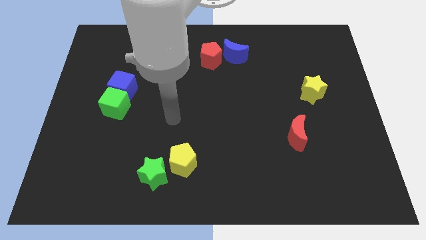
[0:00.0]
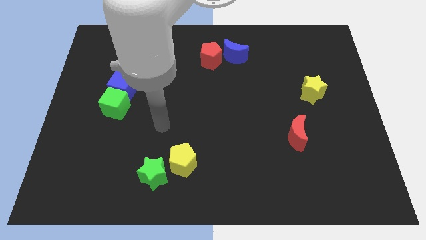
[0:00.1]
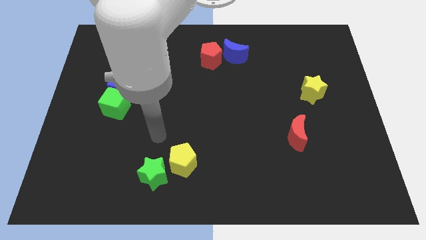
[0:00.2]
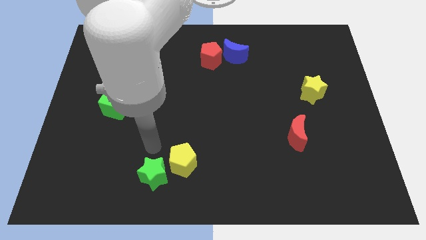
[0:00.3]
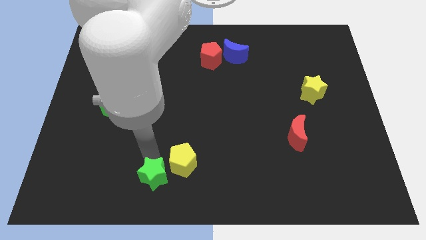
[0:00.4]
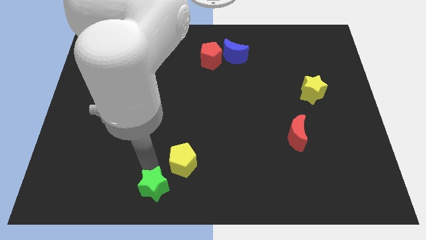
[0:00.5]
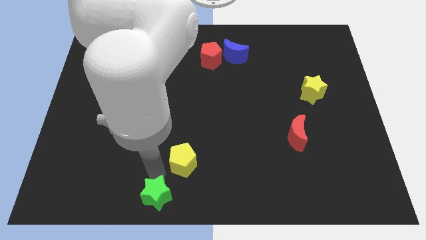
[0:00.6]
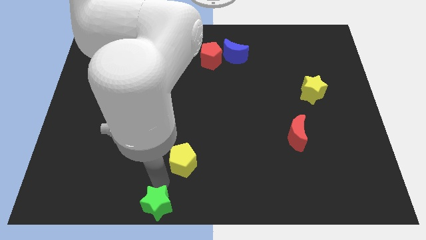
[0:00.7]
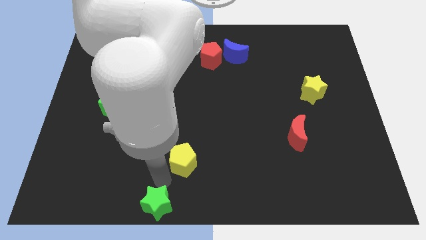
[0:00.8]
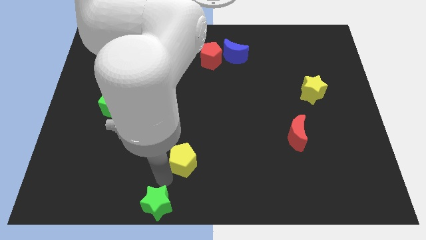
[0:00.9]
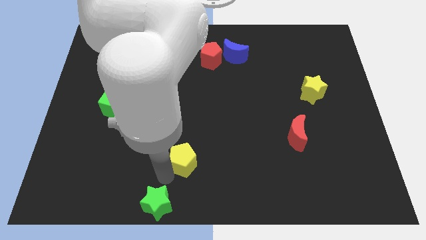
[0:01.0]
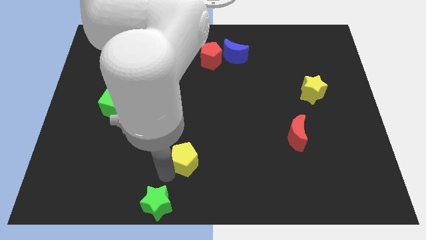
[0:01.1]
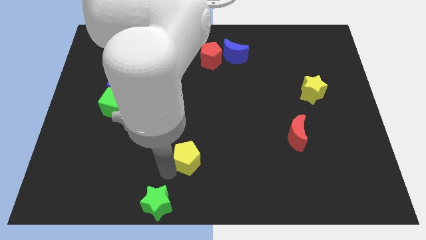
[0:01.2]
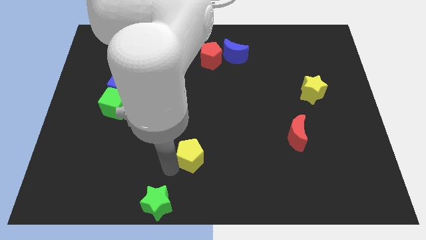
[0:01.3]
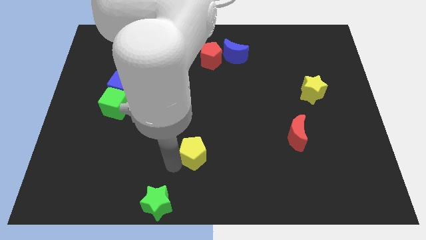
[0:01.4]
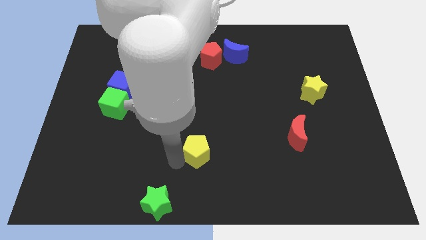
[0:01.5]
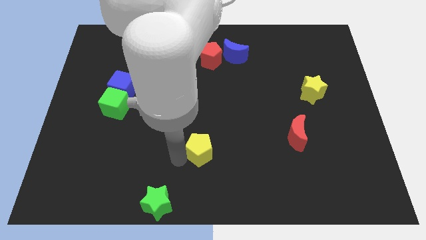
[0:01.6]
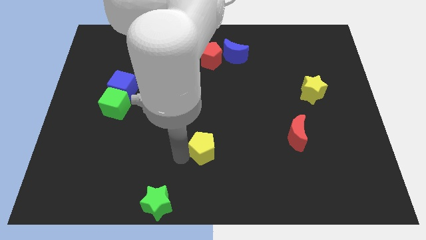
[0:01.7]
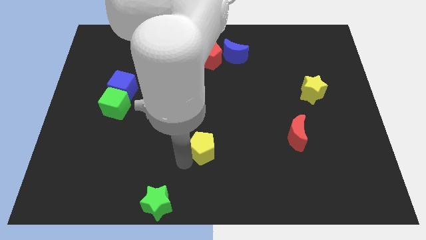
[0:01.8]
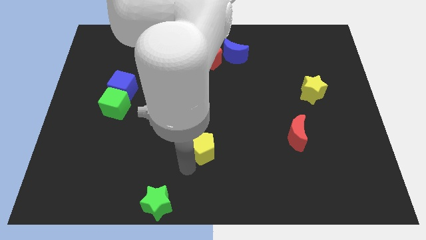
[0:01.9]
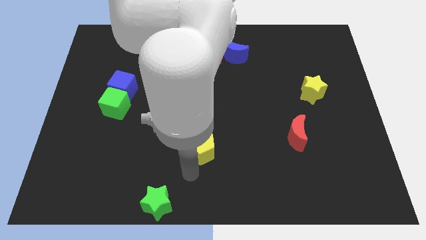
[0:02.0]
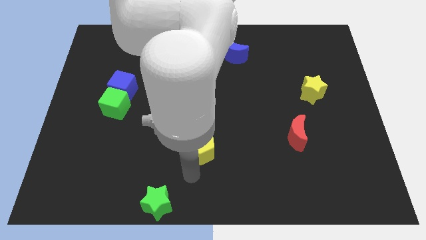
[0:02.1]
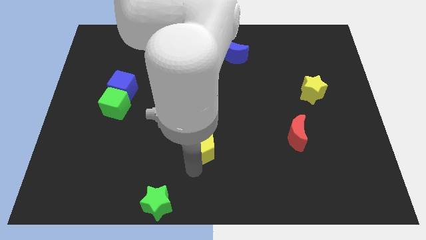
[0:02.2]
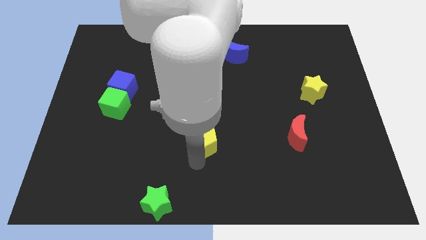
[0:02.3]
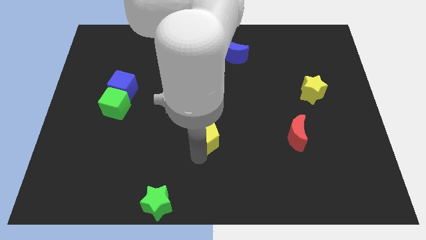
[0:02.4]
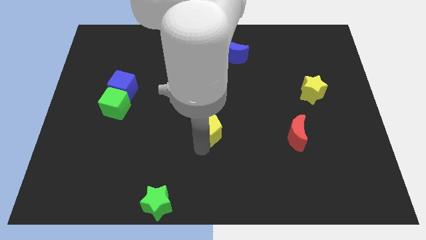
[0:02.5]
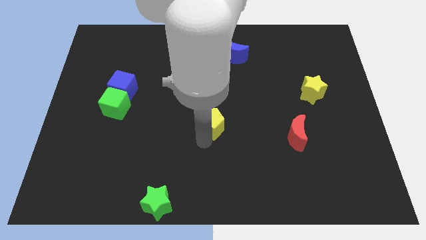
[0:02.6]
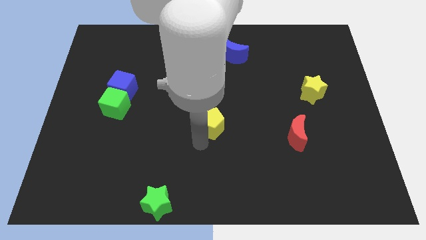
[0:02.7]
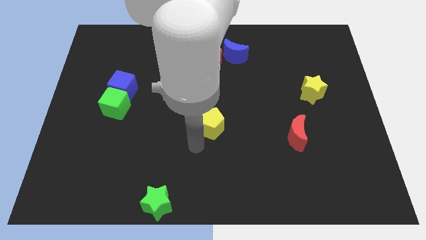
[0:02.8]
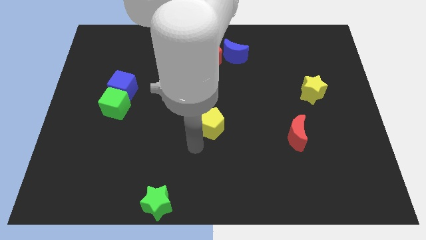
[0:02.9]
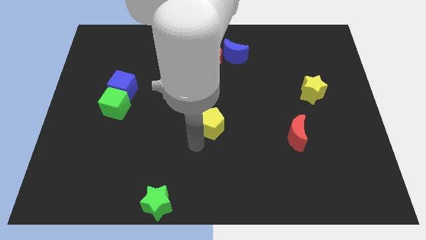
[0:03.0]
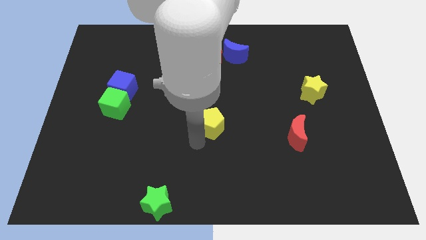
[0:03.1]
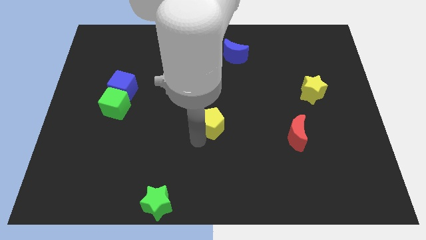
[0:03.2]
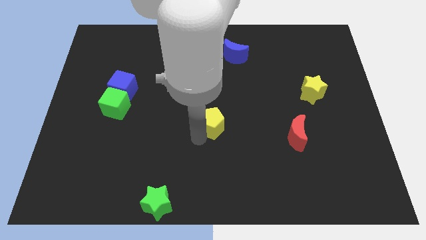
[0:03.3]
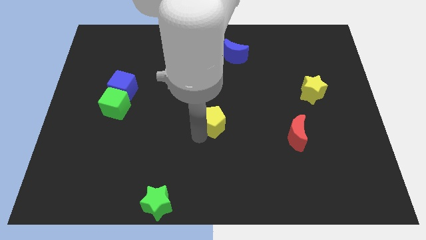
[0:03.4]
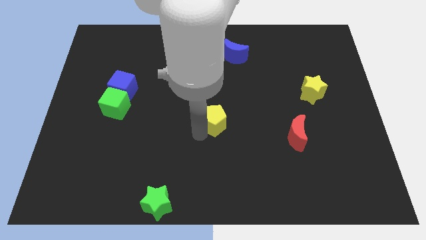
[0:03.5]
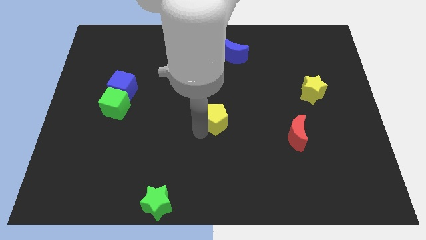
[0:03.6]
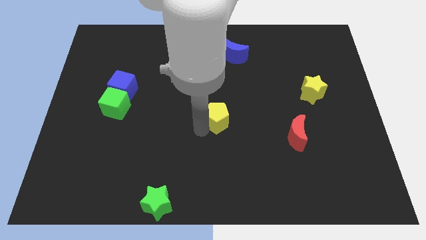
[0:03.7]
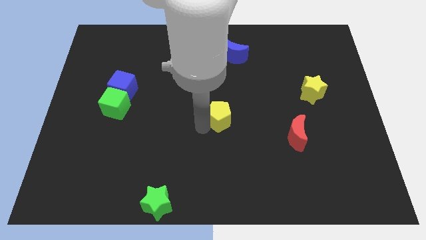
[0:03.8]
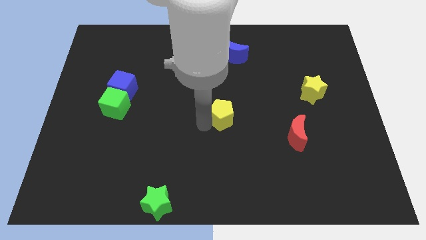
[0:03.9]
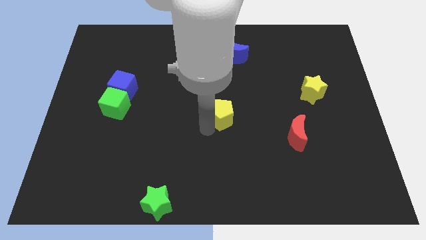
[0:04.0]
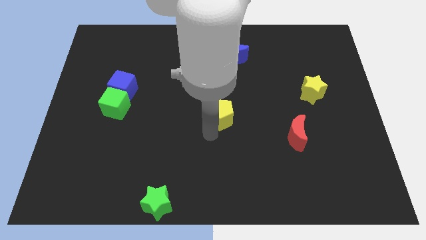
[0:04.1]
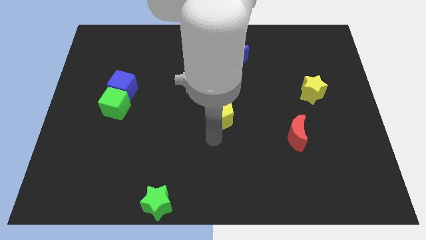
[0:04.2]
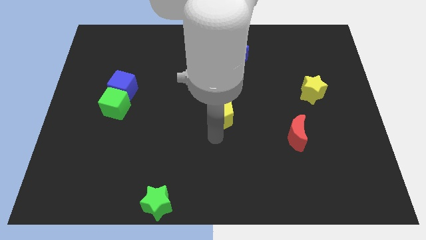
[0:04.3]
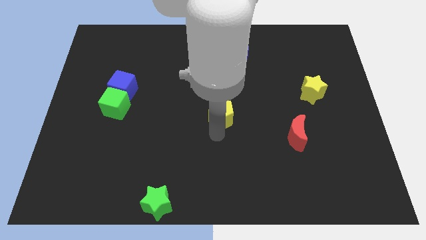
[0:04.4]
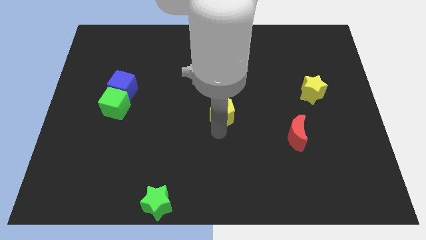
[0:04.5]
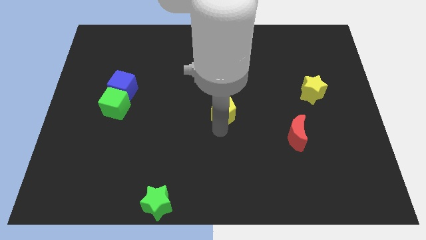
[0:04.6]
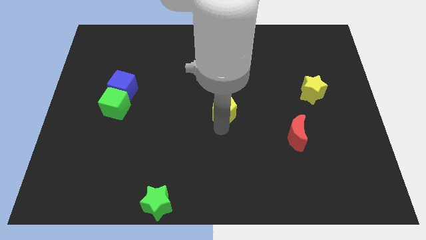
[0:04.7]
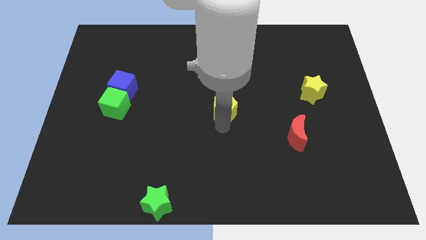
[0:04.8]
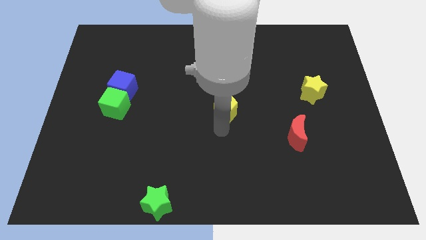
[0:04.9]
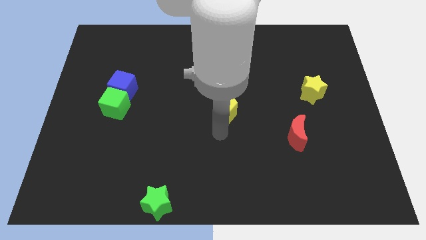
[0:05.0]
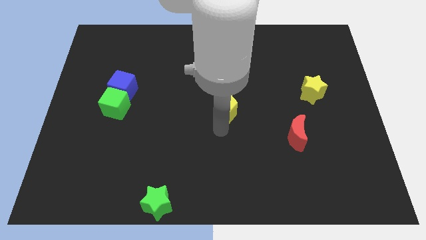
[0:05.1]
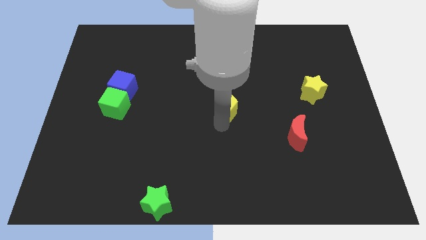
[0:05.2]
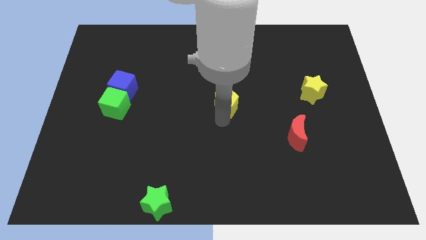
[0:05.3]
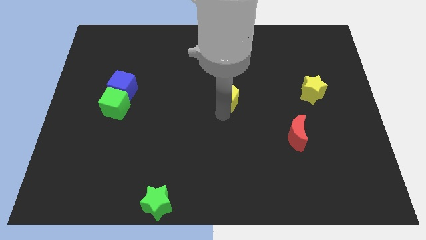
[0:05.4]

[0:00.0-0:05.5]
put the yellow pentagon below the blue moon

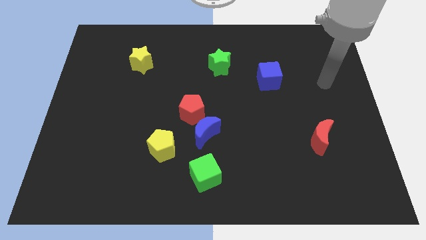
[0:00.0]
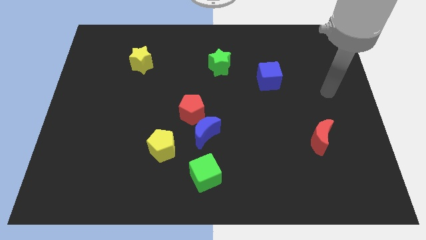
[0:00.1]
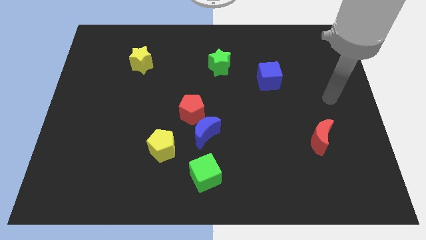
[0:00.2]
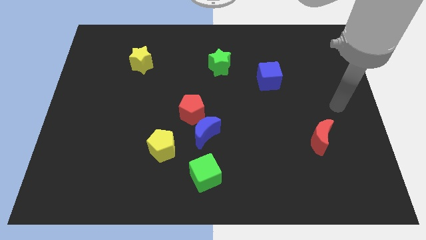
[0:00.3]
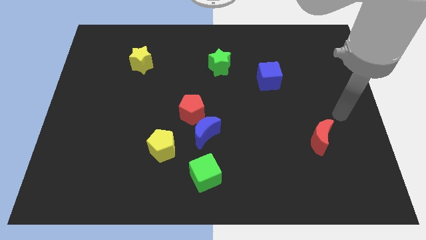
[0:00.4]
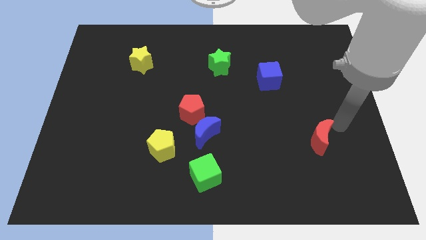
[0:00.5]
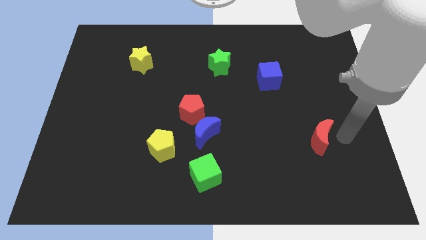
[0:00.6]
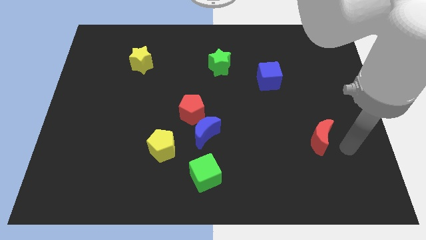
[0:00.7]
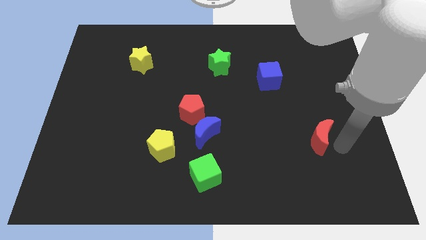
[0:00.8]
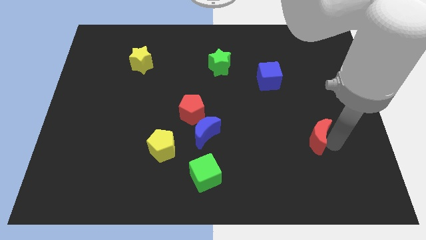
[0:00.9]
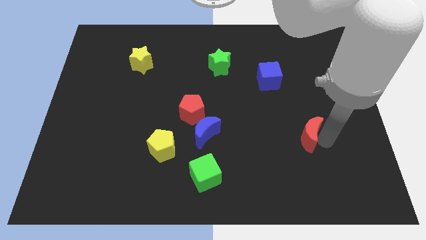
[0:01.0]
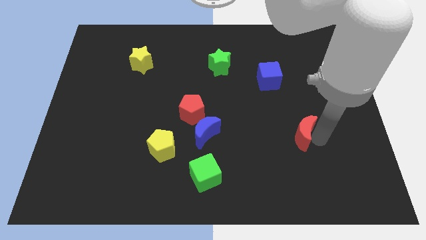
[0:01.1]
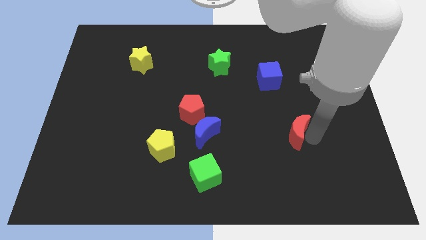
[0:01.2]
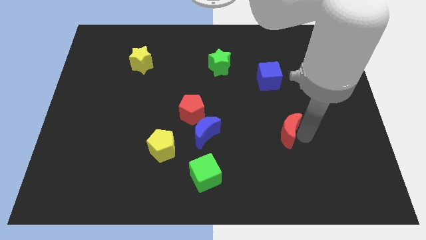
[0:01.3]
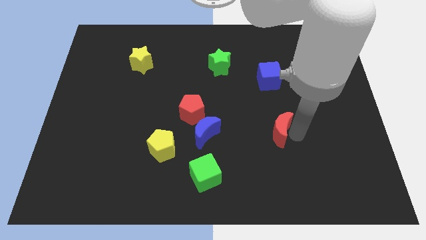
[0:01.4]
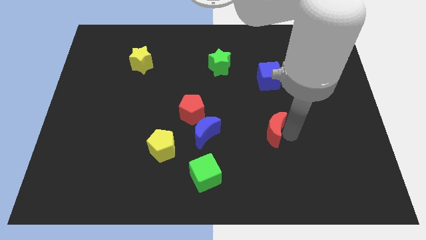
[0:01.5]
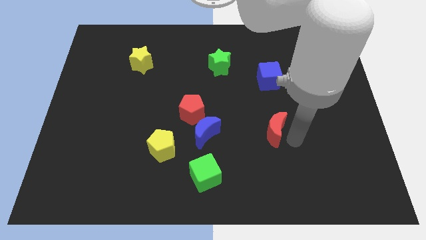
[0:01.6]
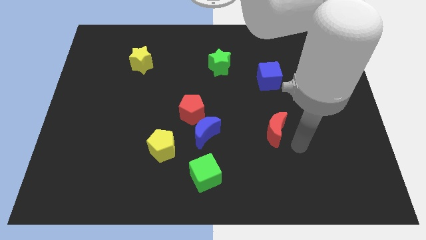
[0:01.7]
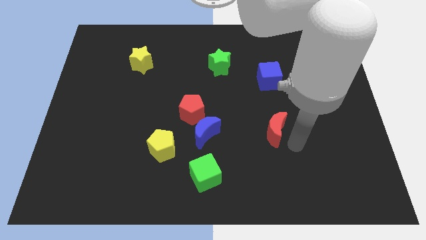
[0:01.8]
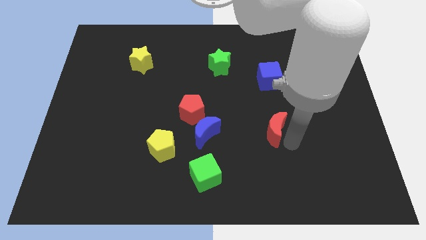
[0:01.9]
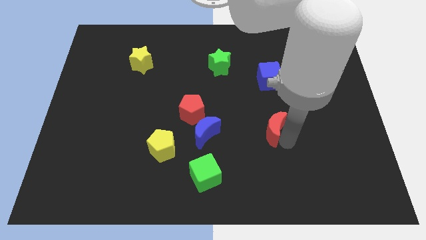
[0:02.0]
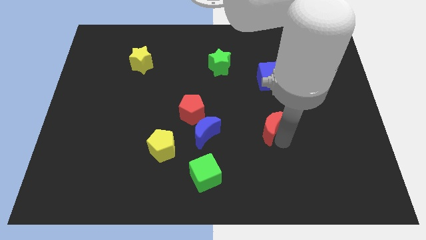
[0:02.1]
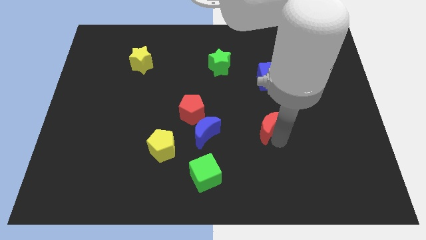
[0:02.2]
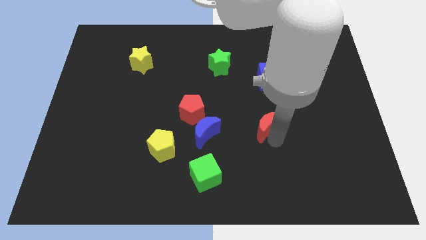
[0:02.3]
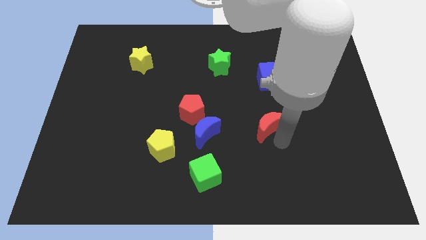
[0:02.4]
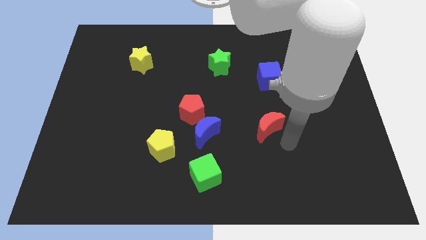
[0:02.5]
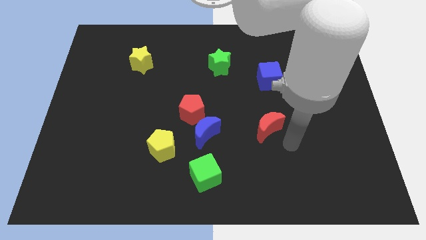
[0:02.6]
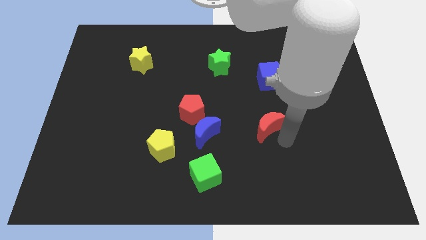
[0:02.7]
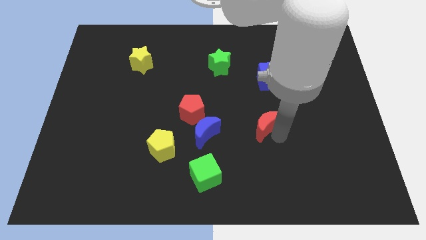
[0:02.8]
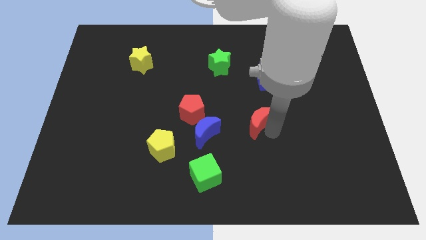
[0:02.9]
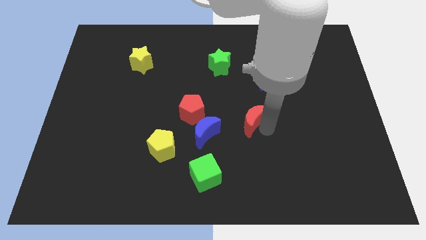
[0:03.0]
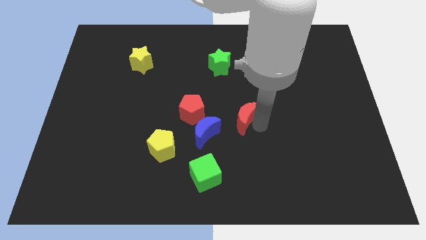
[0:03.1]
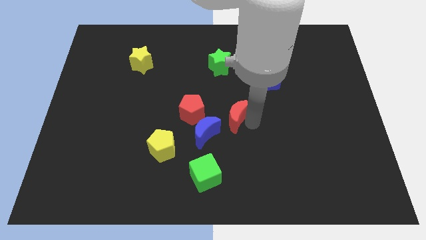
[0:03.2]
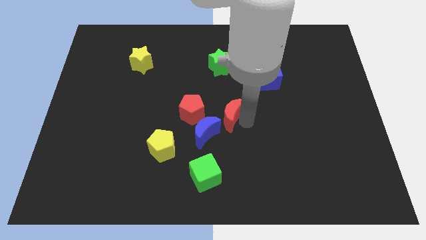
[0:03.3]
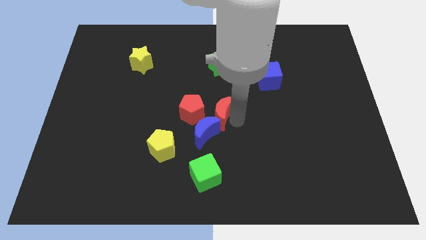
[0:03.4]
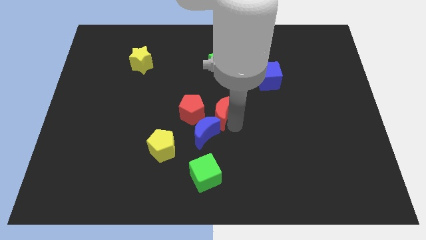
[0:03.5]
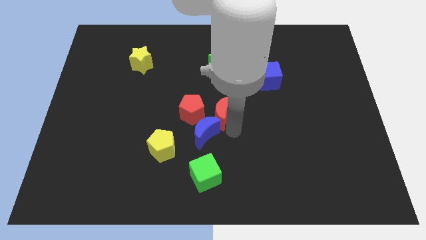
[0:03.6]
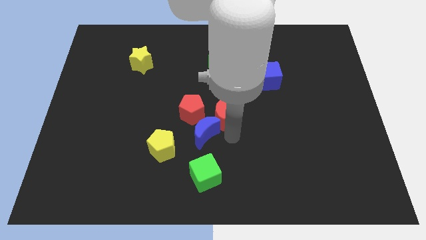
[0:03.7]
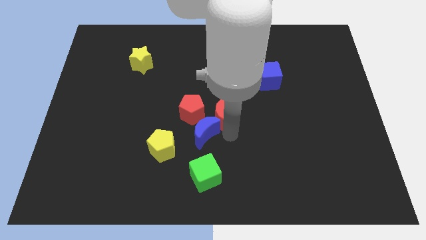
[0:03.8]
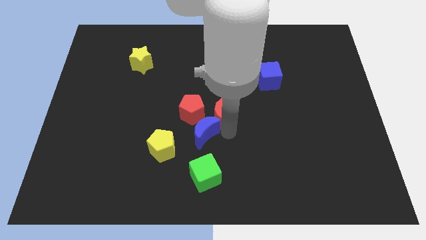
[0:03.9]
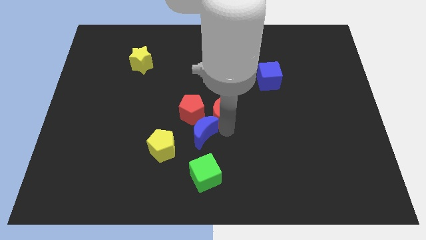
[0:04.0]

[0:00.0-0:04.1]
push the red moon diagonally up and to the right of the red pentagon
